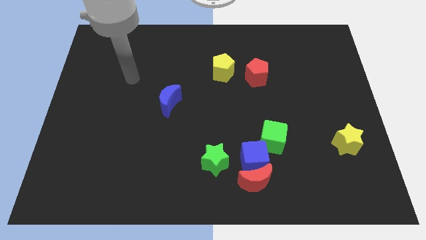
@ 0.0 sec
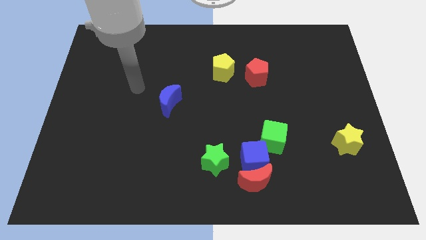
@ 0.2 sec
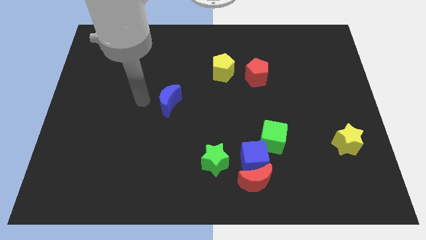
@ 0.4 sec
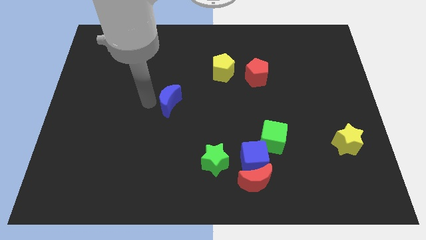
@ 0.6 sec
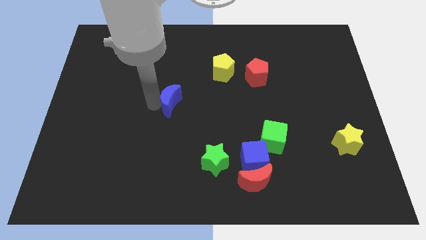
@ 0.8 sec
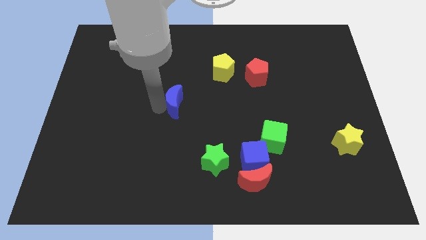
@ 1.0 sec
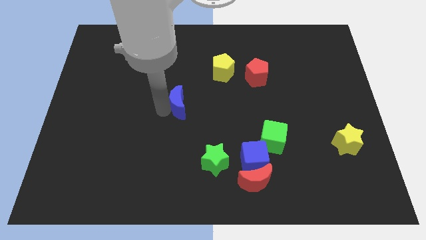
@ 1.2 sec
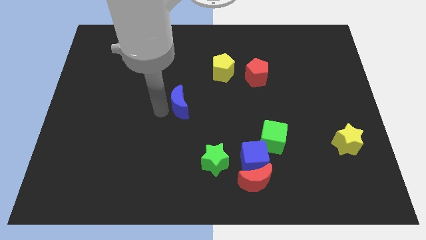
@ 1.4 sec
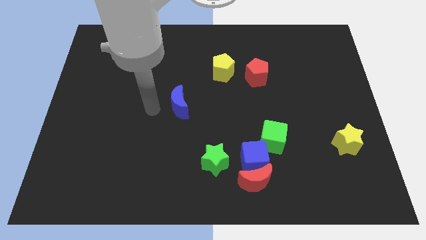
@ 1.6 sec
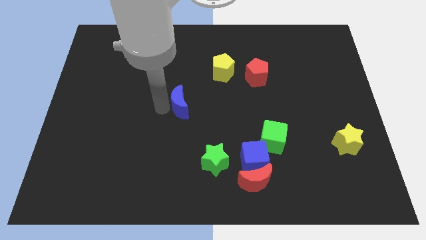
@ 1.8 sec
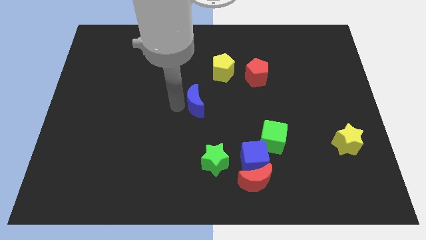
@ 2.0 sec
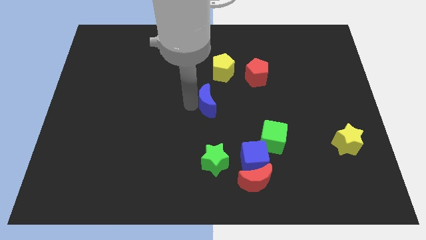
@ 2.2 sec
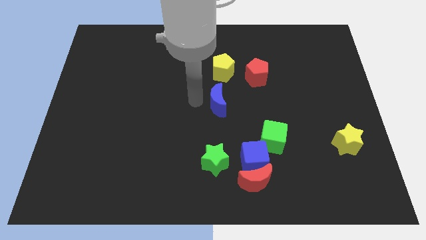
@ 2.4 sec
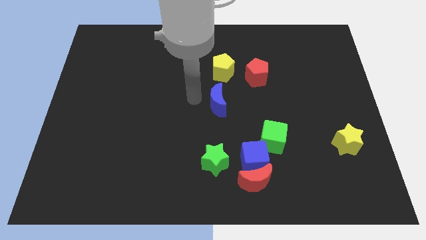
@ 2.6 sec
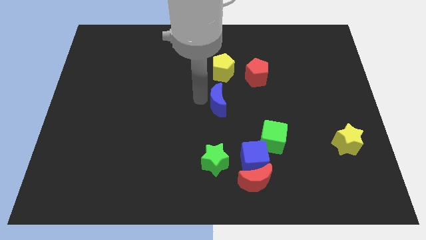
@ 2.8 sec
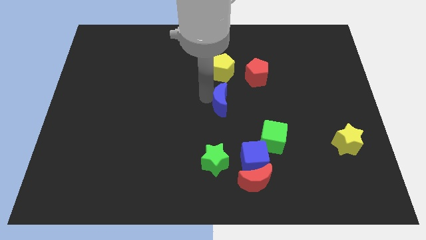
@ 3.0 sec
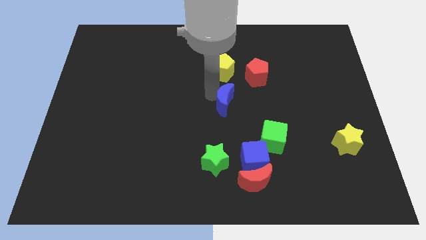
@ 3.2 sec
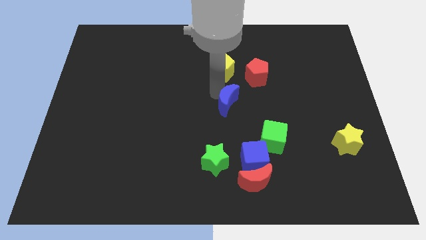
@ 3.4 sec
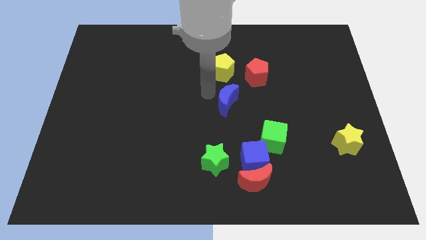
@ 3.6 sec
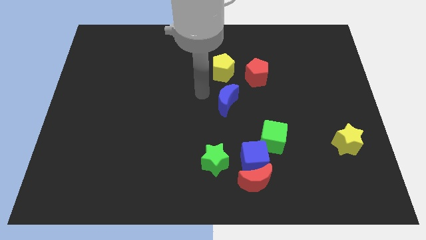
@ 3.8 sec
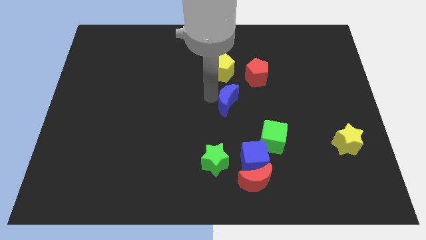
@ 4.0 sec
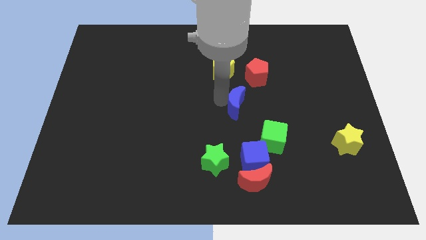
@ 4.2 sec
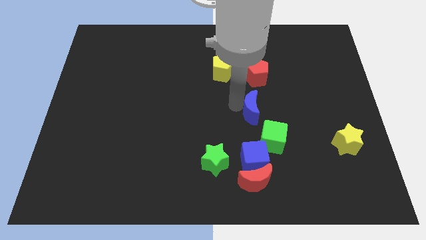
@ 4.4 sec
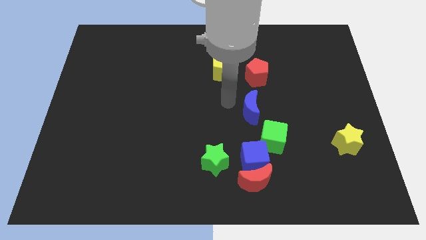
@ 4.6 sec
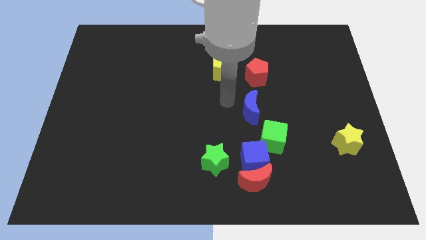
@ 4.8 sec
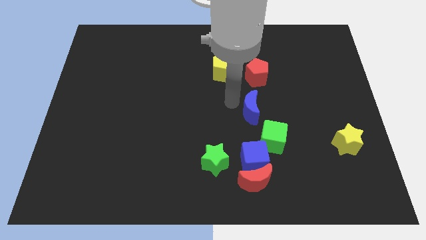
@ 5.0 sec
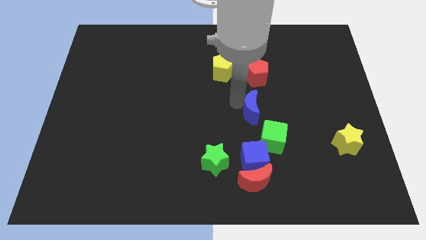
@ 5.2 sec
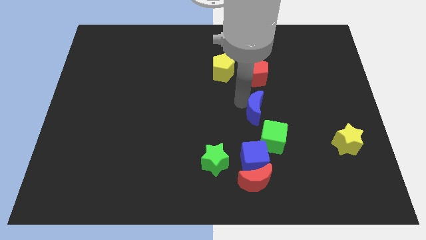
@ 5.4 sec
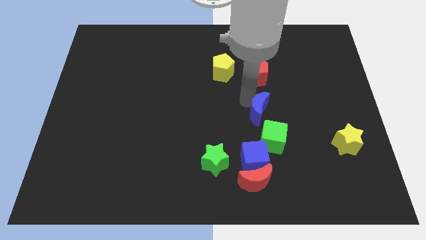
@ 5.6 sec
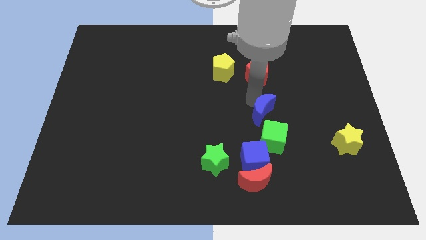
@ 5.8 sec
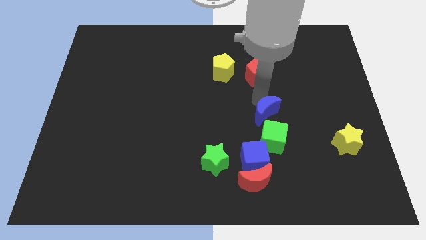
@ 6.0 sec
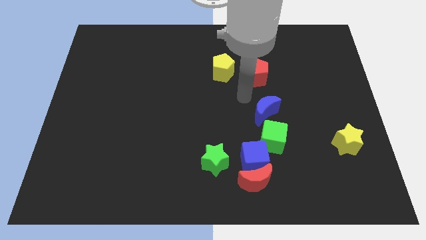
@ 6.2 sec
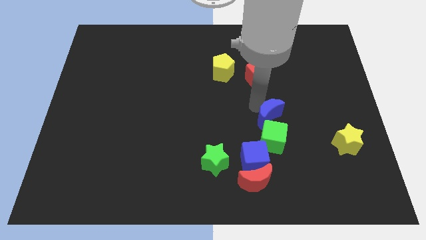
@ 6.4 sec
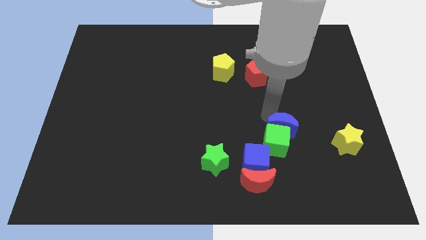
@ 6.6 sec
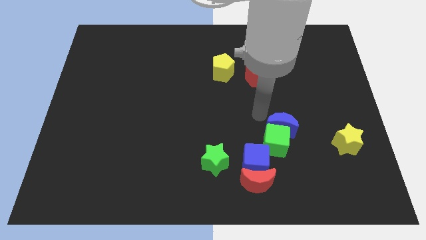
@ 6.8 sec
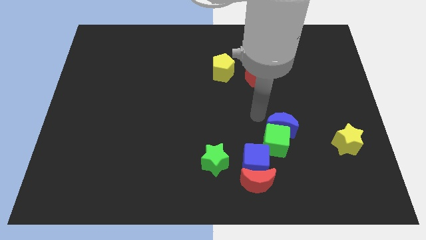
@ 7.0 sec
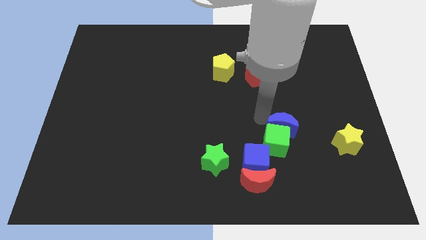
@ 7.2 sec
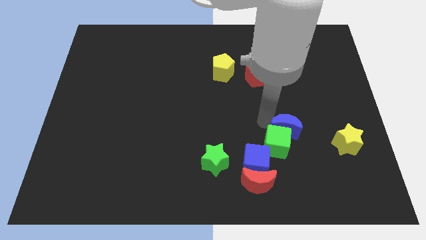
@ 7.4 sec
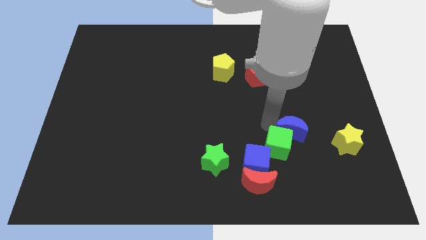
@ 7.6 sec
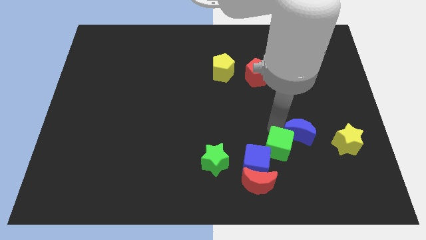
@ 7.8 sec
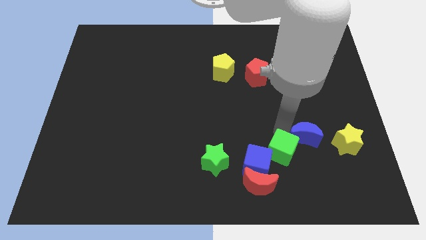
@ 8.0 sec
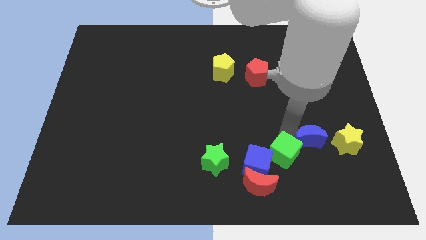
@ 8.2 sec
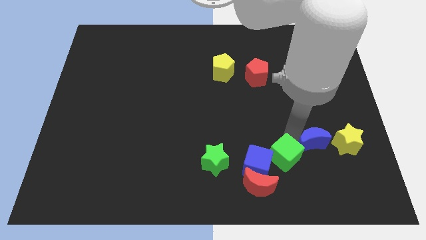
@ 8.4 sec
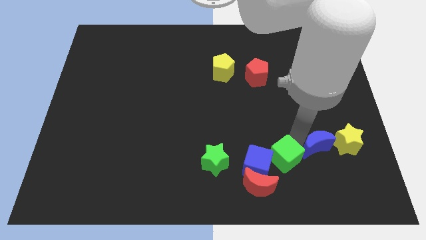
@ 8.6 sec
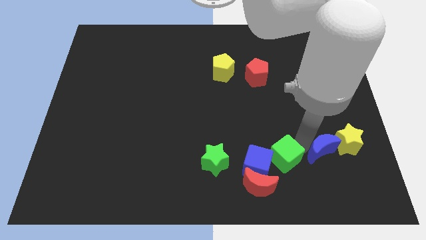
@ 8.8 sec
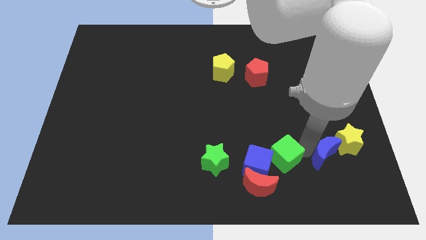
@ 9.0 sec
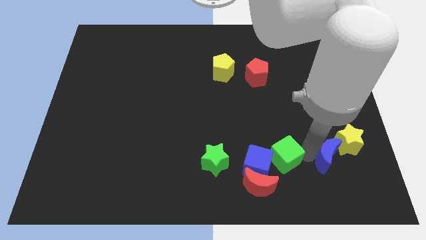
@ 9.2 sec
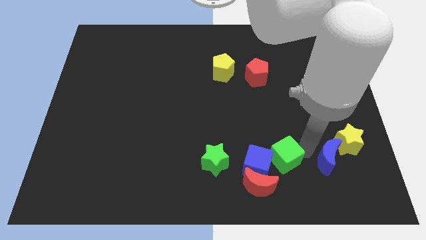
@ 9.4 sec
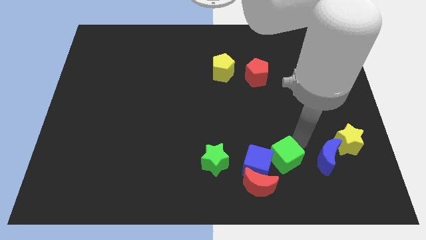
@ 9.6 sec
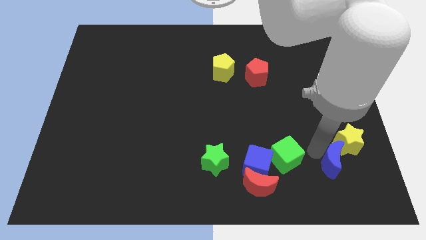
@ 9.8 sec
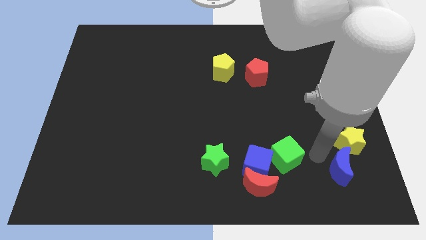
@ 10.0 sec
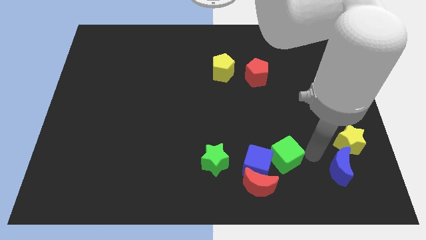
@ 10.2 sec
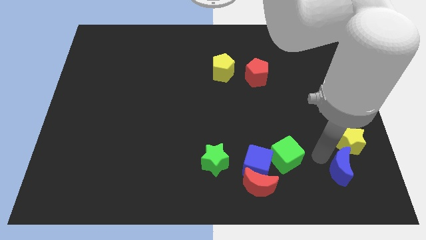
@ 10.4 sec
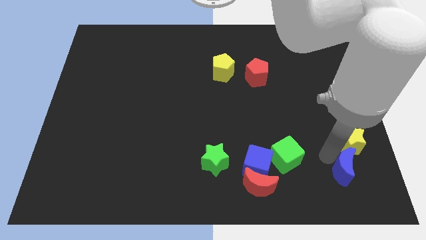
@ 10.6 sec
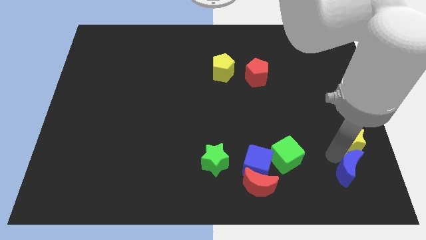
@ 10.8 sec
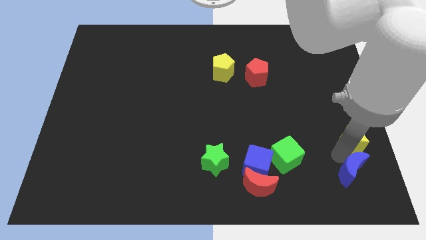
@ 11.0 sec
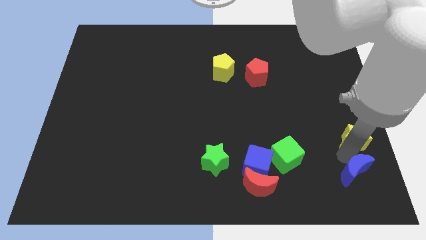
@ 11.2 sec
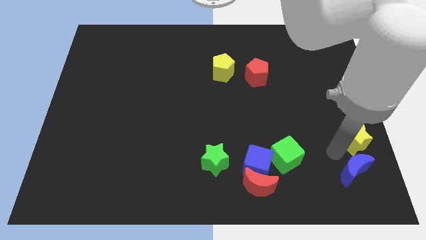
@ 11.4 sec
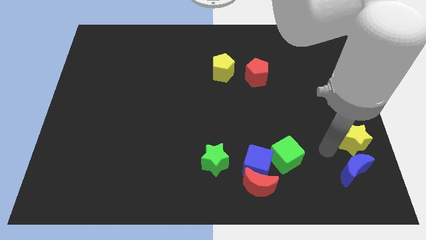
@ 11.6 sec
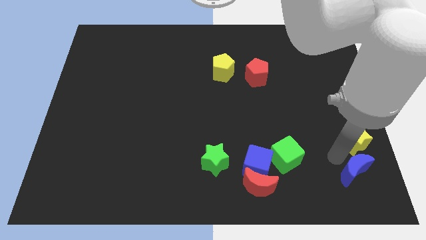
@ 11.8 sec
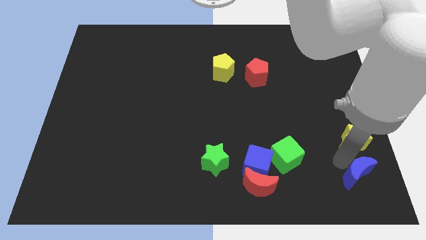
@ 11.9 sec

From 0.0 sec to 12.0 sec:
push the blue moon to the bottom right of the board

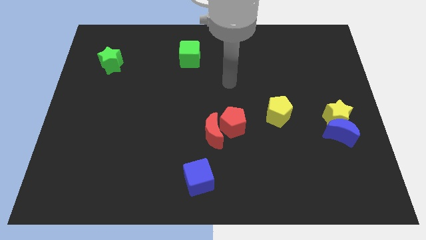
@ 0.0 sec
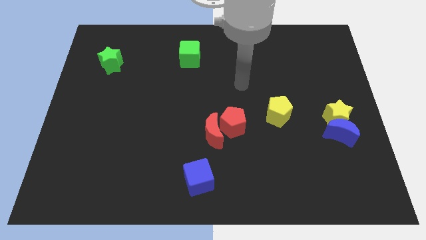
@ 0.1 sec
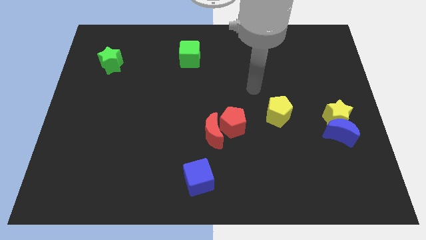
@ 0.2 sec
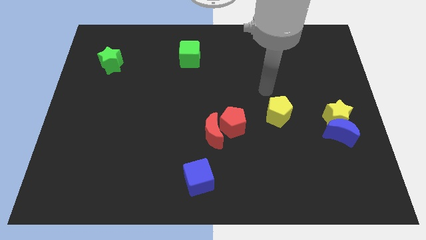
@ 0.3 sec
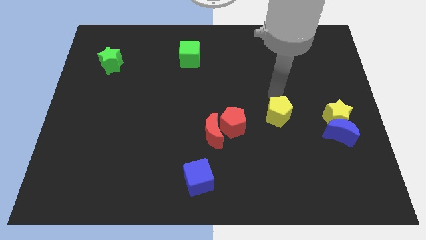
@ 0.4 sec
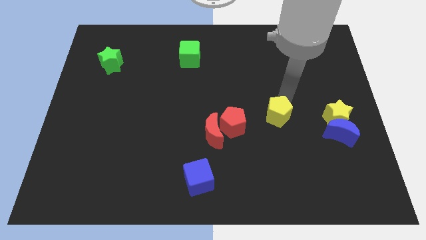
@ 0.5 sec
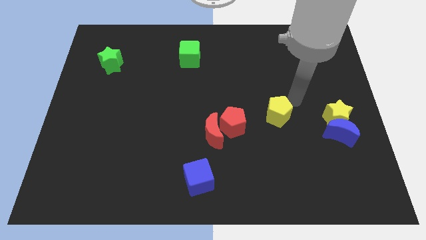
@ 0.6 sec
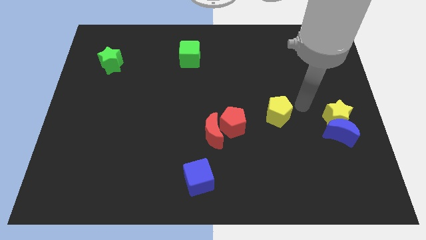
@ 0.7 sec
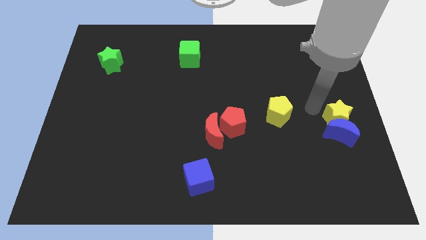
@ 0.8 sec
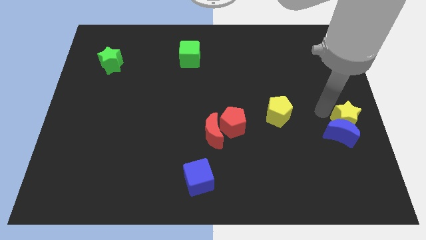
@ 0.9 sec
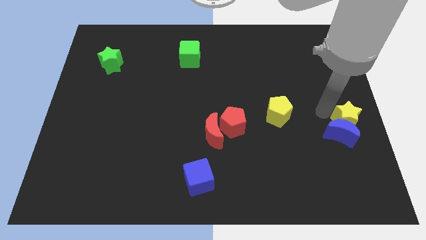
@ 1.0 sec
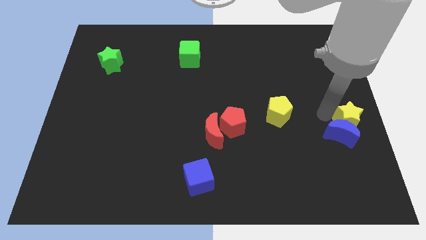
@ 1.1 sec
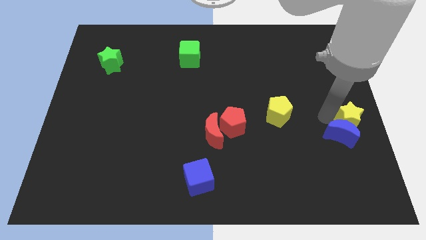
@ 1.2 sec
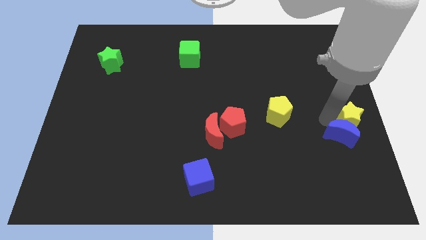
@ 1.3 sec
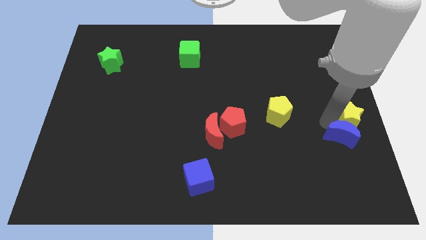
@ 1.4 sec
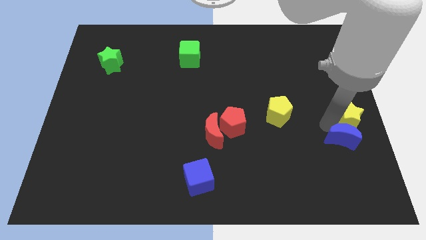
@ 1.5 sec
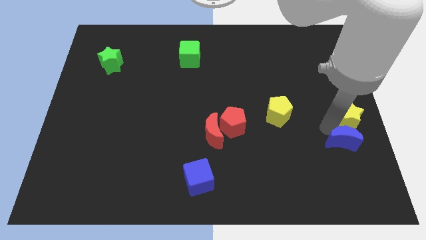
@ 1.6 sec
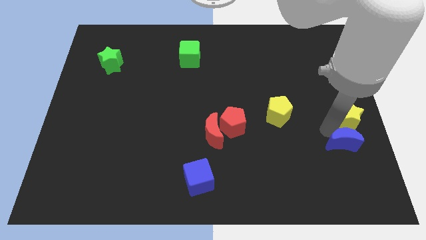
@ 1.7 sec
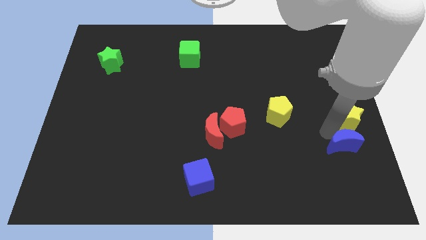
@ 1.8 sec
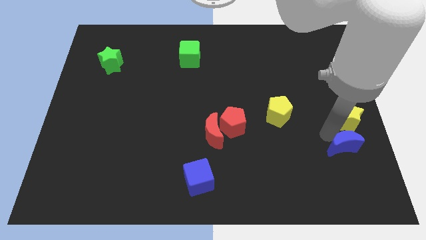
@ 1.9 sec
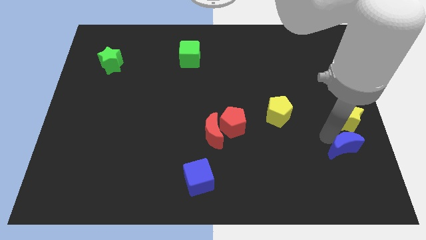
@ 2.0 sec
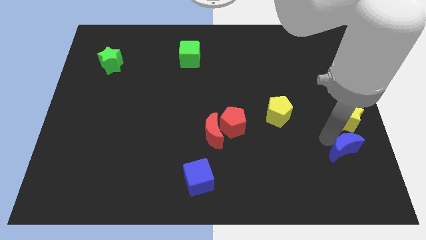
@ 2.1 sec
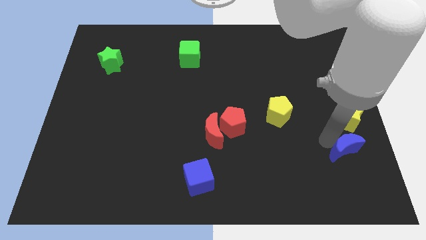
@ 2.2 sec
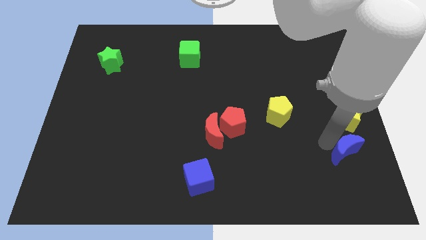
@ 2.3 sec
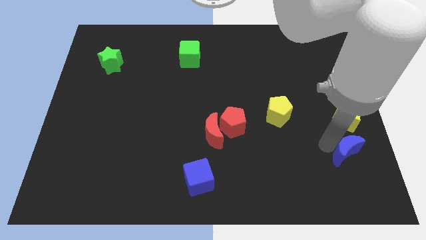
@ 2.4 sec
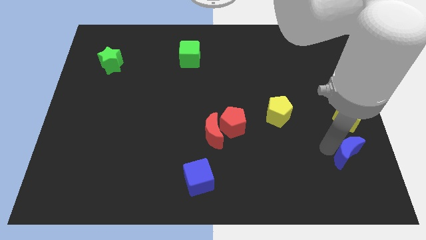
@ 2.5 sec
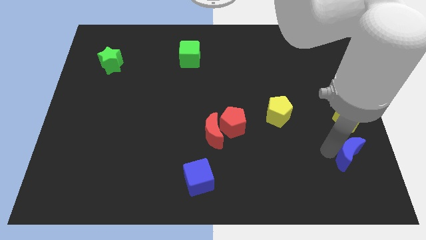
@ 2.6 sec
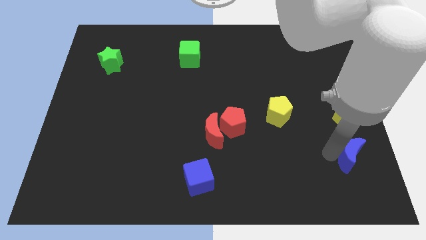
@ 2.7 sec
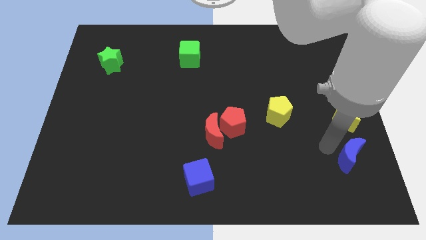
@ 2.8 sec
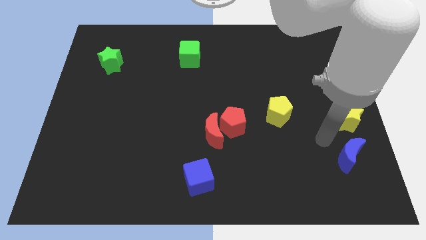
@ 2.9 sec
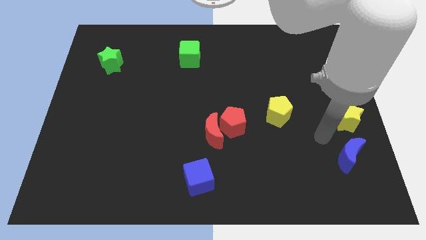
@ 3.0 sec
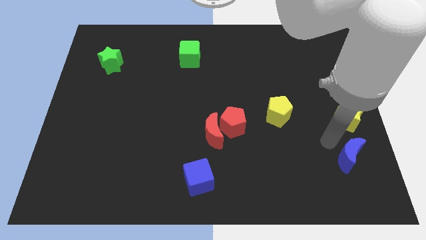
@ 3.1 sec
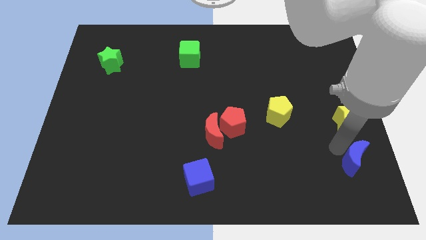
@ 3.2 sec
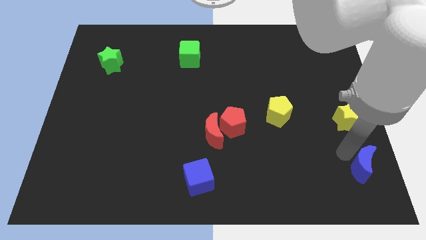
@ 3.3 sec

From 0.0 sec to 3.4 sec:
put the blue moon to the lower right corner
